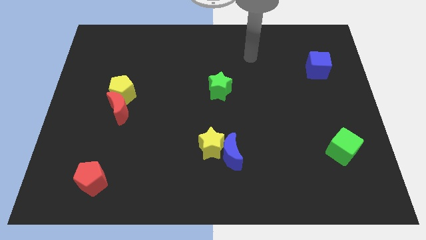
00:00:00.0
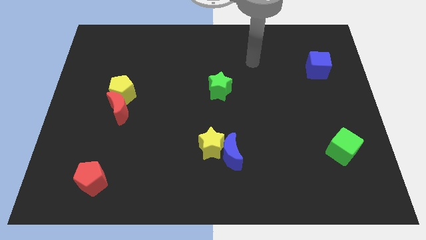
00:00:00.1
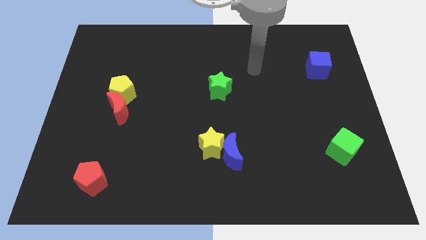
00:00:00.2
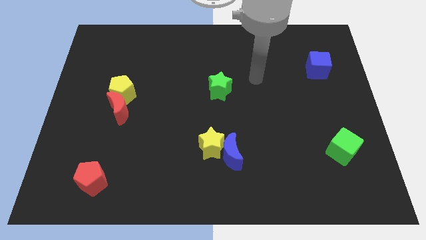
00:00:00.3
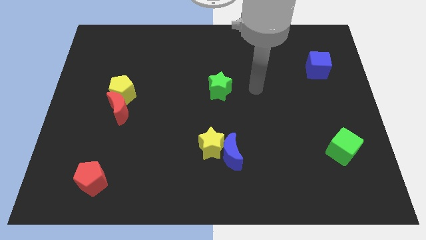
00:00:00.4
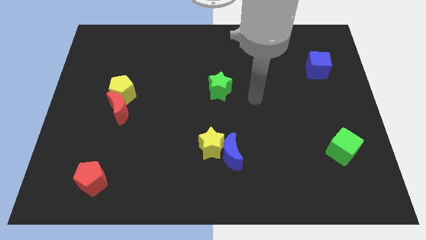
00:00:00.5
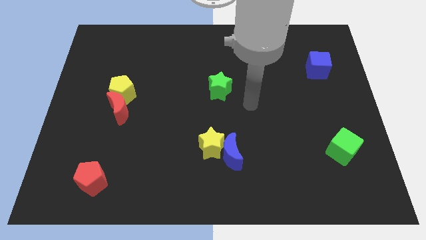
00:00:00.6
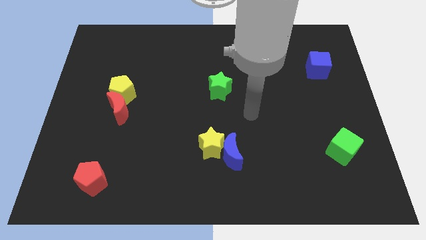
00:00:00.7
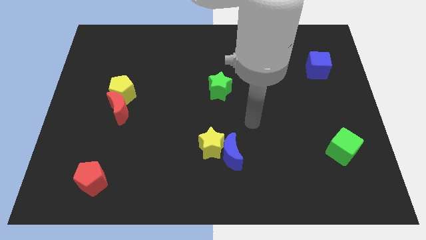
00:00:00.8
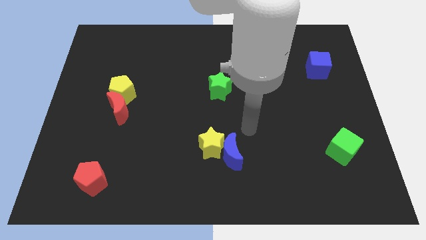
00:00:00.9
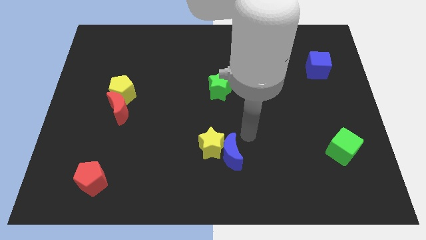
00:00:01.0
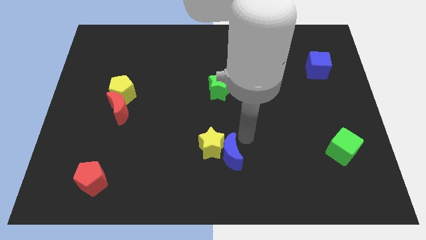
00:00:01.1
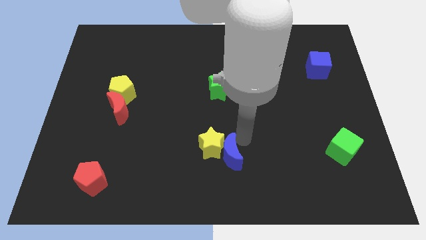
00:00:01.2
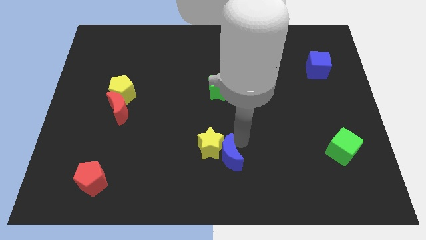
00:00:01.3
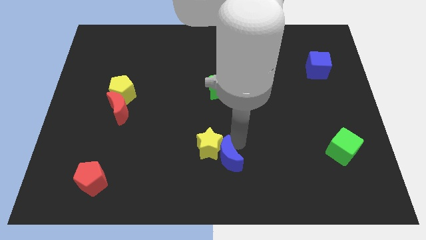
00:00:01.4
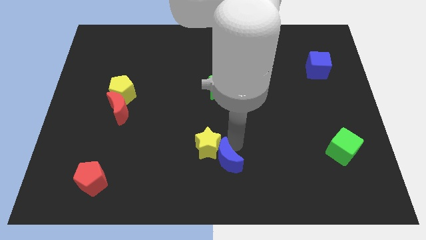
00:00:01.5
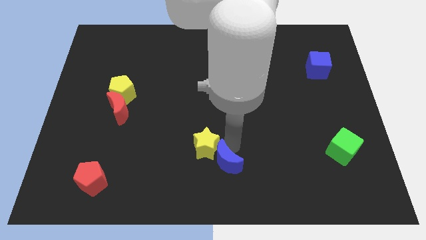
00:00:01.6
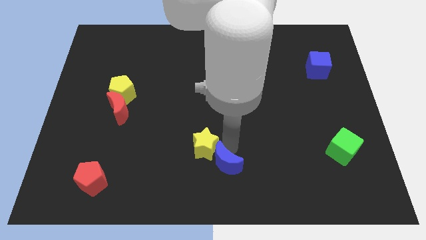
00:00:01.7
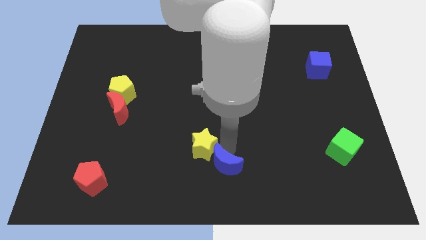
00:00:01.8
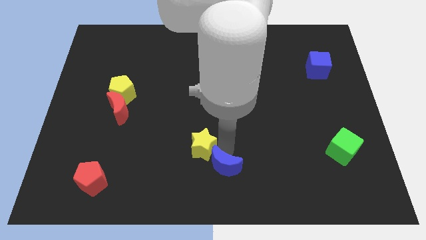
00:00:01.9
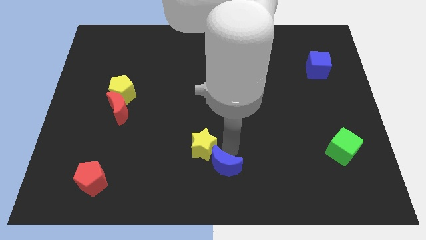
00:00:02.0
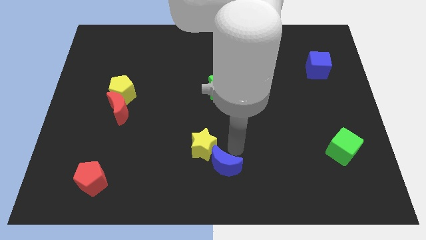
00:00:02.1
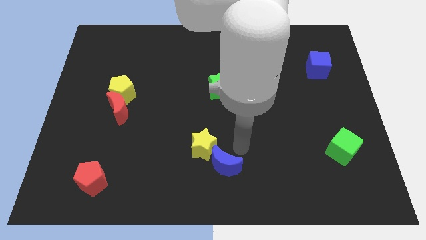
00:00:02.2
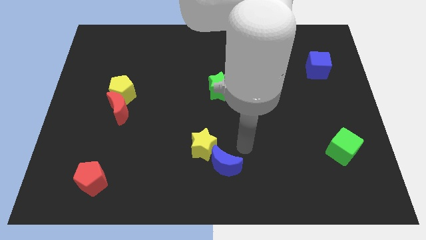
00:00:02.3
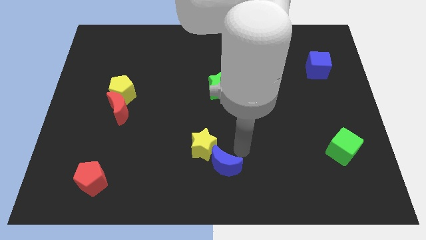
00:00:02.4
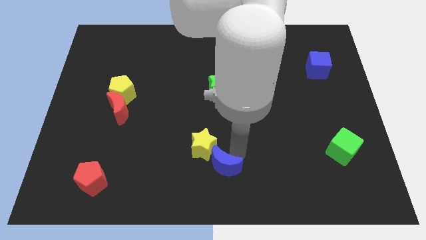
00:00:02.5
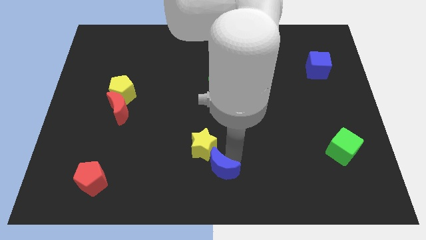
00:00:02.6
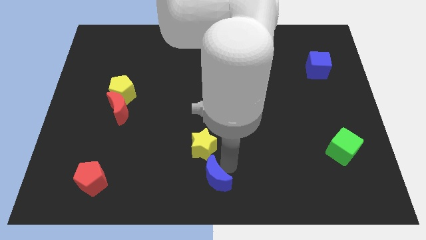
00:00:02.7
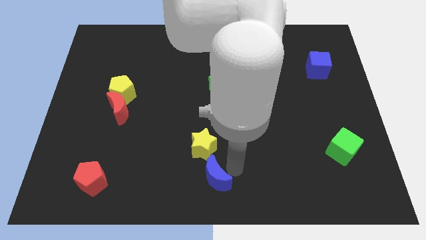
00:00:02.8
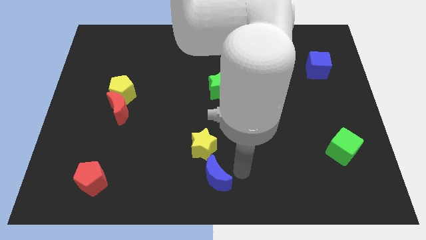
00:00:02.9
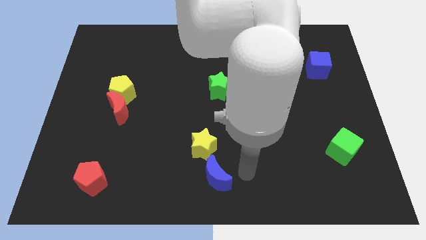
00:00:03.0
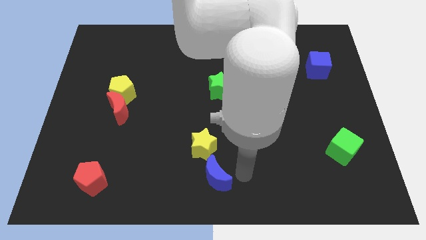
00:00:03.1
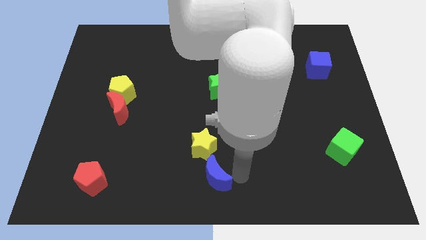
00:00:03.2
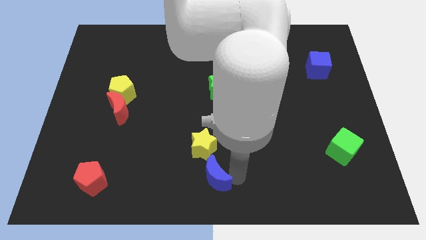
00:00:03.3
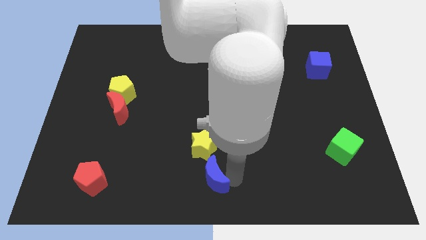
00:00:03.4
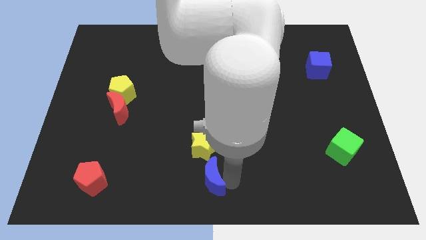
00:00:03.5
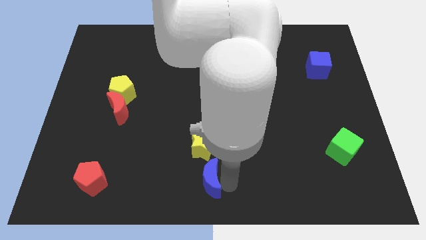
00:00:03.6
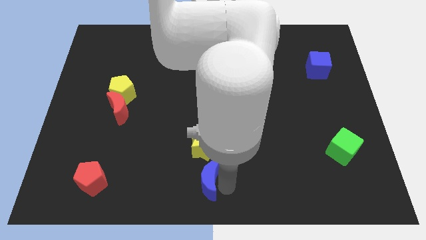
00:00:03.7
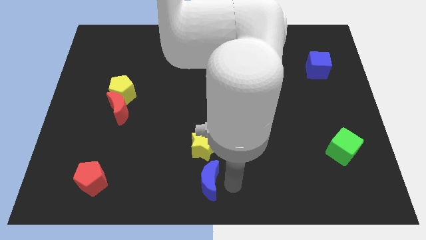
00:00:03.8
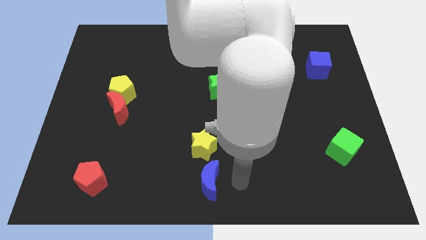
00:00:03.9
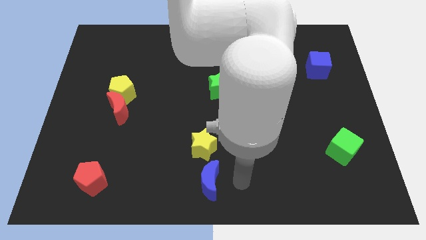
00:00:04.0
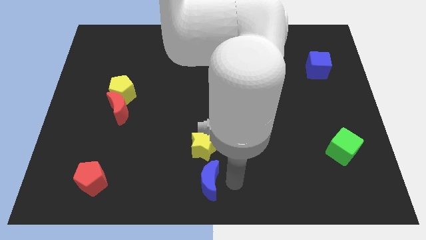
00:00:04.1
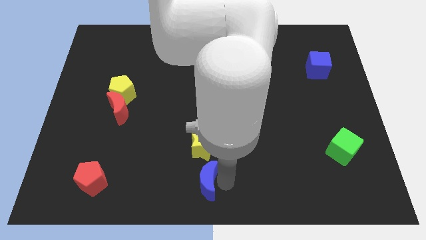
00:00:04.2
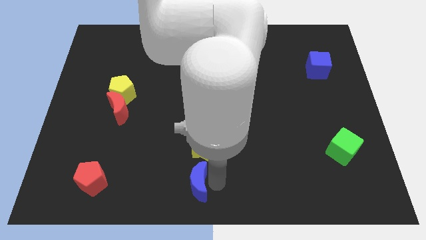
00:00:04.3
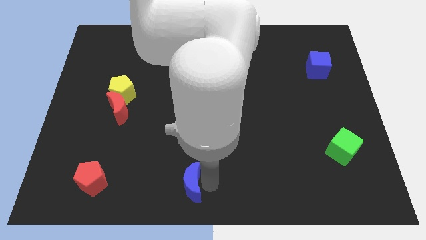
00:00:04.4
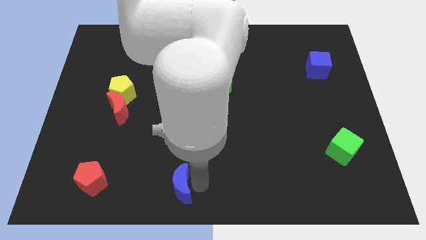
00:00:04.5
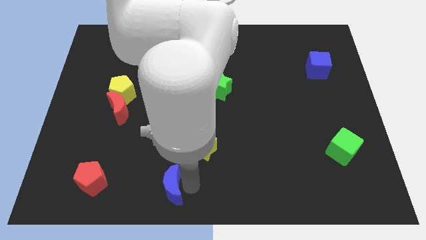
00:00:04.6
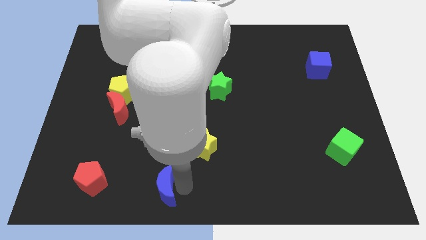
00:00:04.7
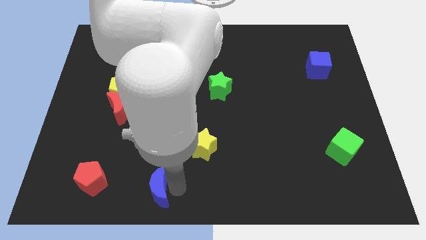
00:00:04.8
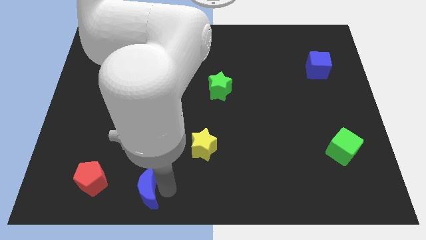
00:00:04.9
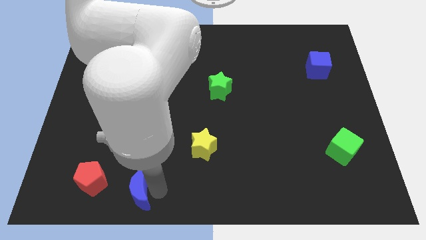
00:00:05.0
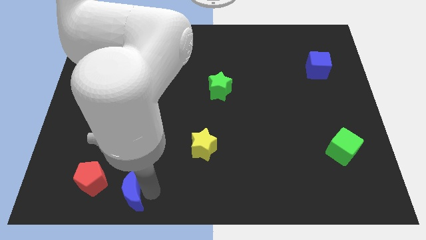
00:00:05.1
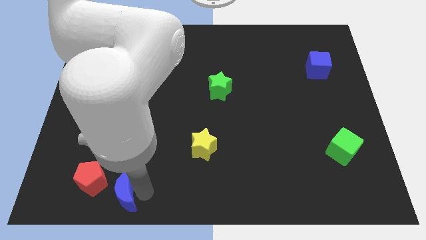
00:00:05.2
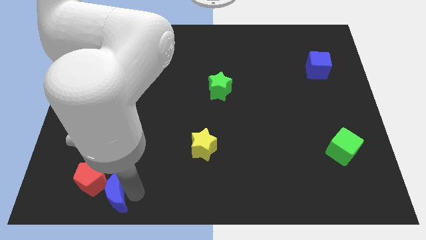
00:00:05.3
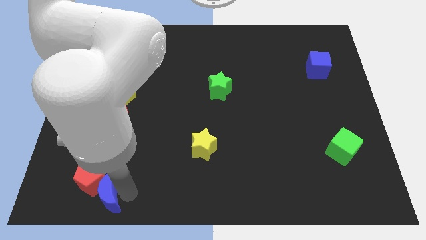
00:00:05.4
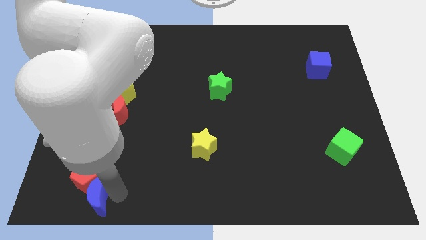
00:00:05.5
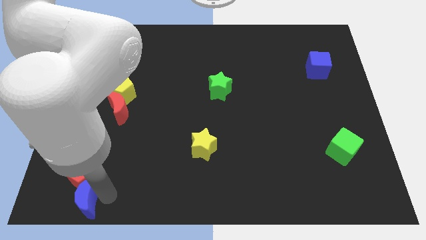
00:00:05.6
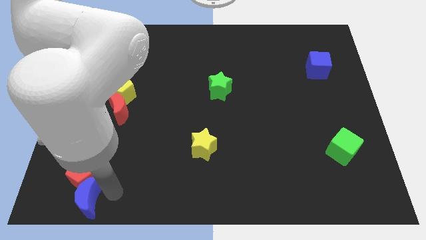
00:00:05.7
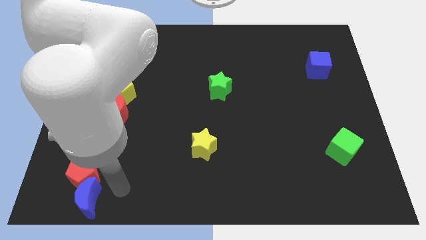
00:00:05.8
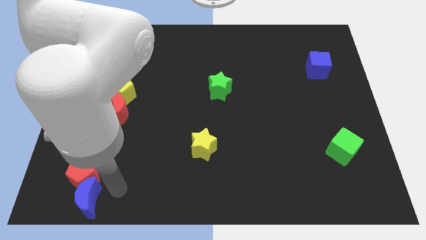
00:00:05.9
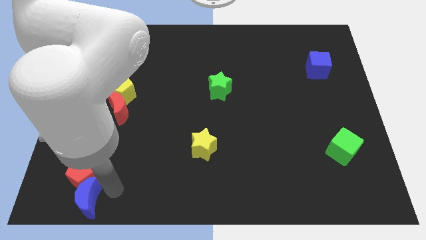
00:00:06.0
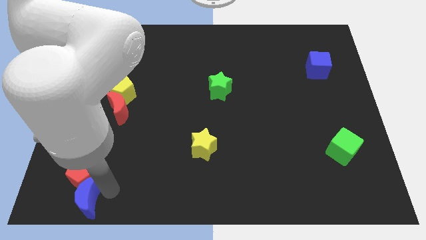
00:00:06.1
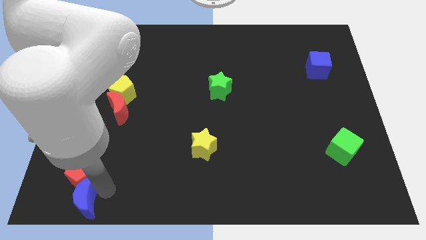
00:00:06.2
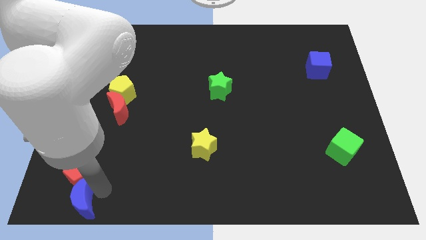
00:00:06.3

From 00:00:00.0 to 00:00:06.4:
put the blue moon to the bottom left corner

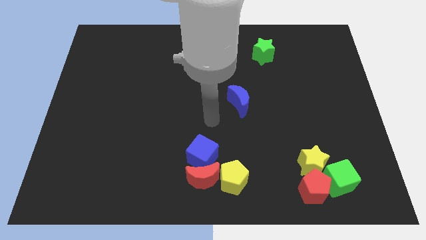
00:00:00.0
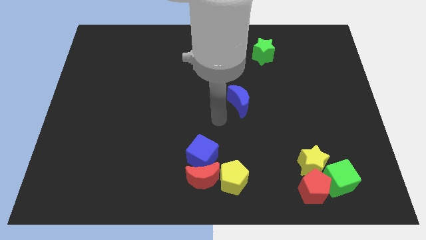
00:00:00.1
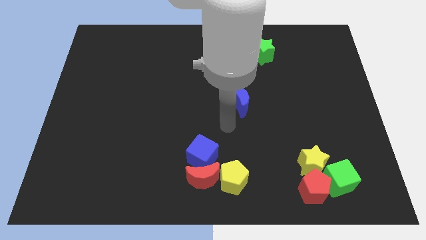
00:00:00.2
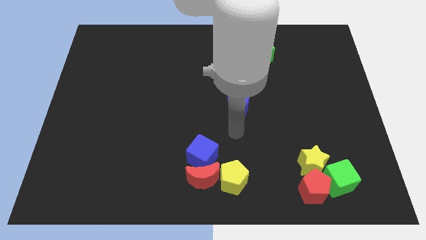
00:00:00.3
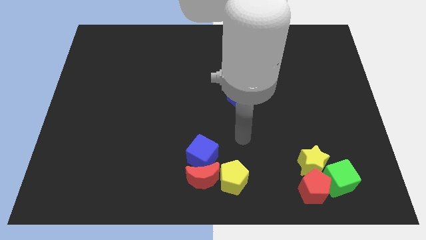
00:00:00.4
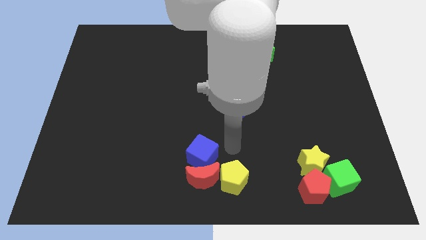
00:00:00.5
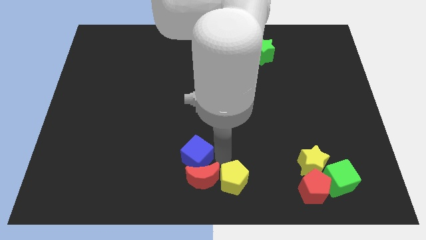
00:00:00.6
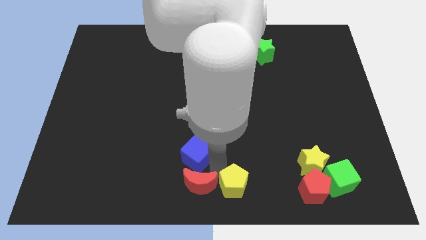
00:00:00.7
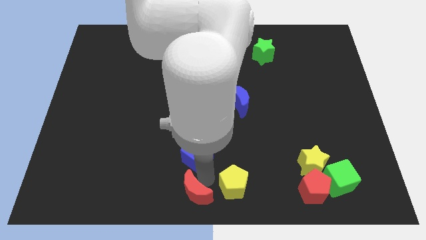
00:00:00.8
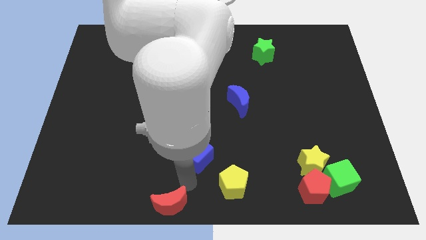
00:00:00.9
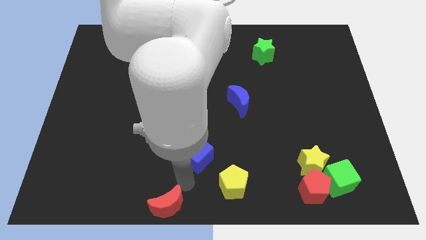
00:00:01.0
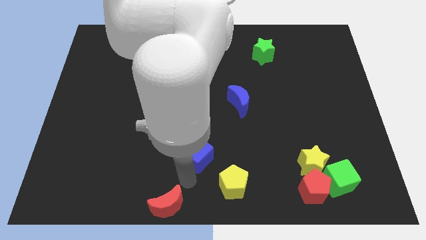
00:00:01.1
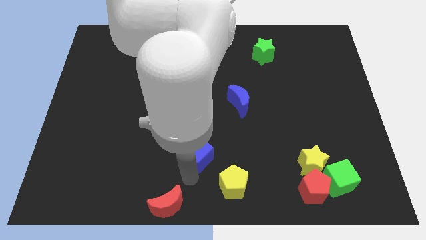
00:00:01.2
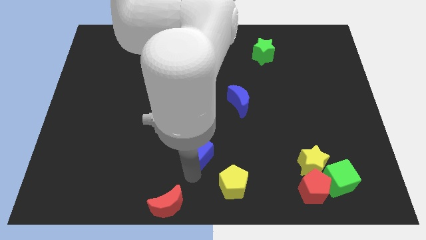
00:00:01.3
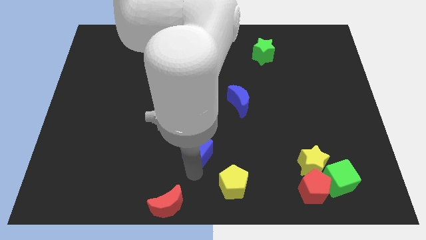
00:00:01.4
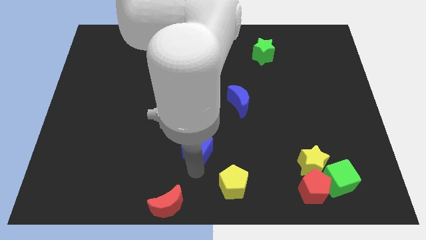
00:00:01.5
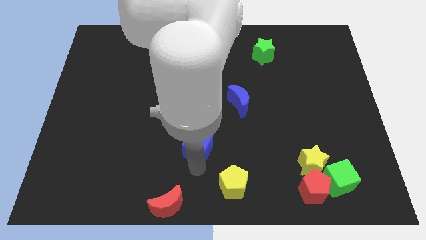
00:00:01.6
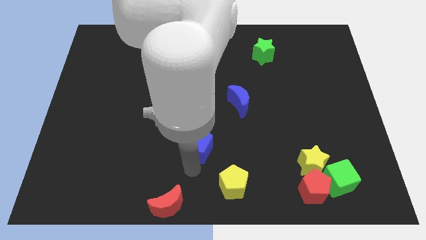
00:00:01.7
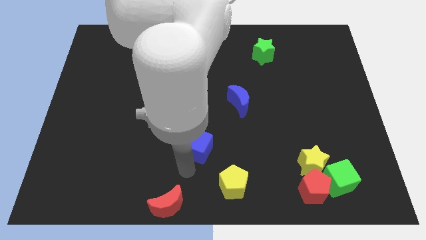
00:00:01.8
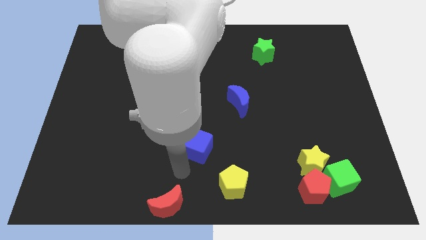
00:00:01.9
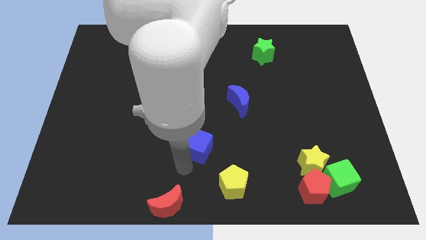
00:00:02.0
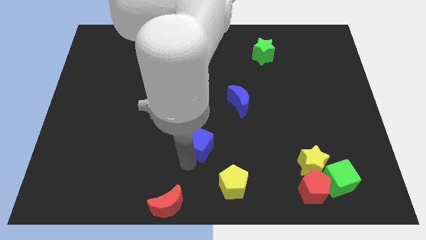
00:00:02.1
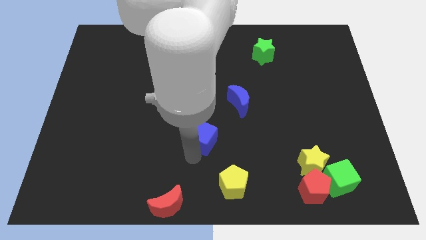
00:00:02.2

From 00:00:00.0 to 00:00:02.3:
slide the blue cube to the middle
